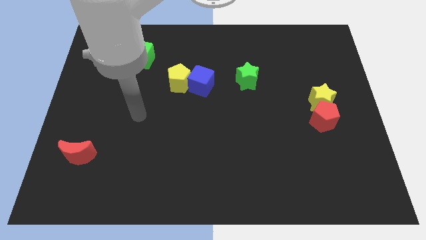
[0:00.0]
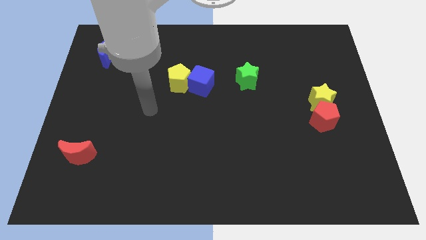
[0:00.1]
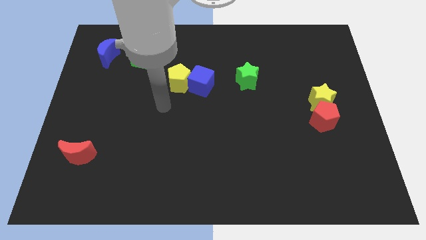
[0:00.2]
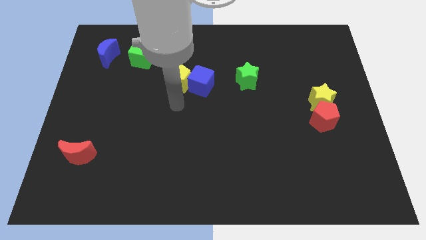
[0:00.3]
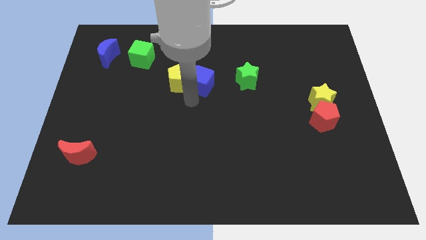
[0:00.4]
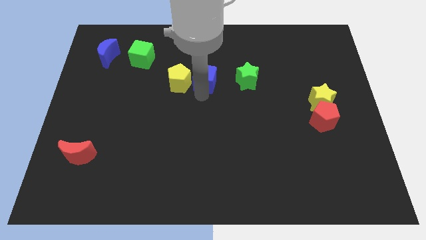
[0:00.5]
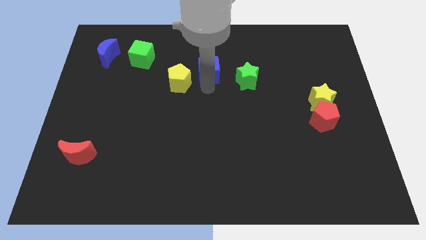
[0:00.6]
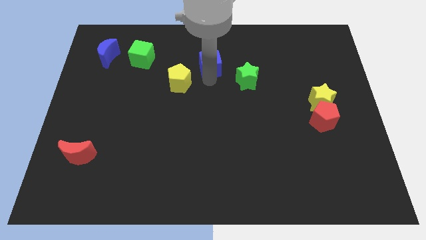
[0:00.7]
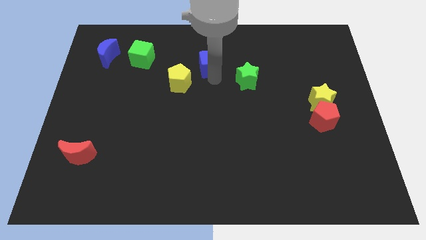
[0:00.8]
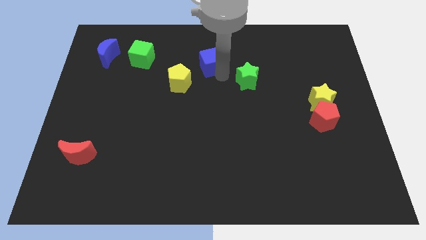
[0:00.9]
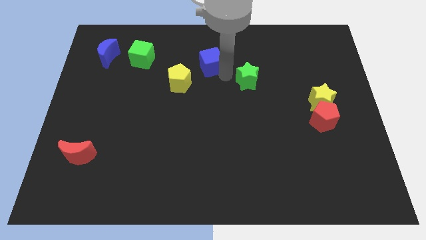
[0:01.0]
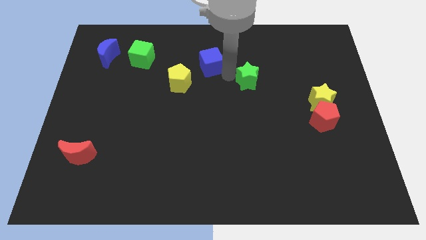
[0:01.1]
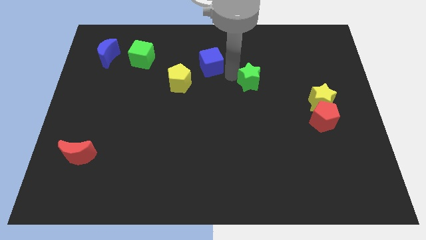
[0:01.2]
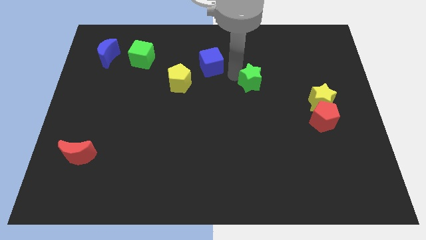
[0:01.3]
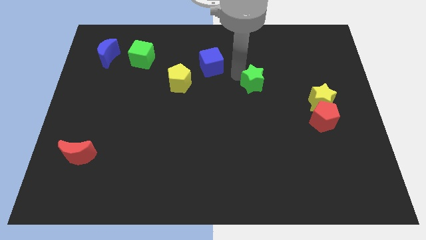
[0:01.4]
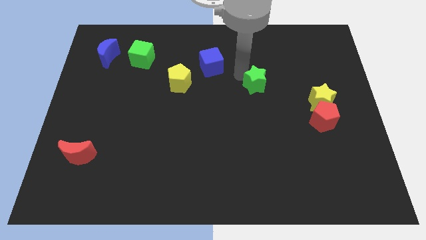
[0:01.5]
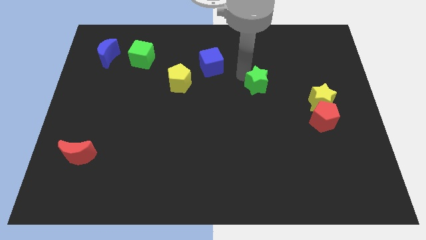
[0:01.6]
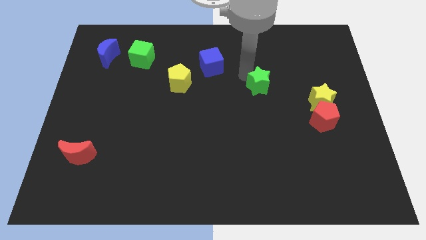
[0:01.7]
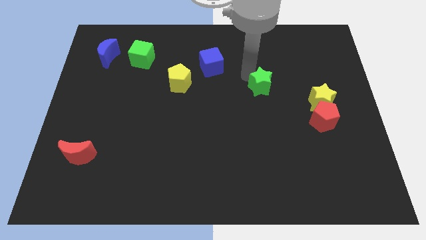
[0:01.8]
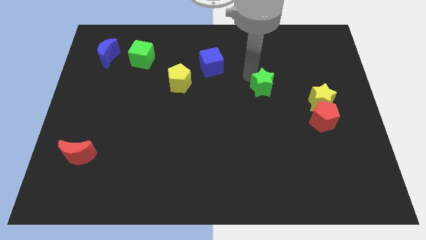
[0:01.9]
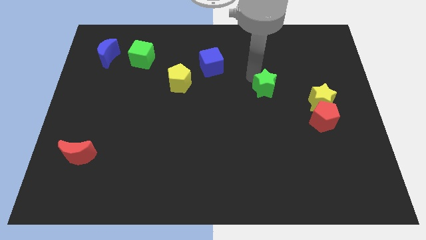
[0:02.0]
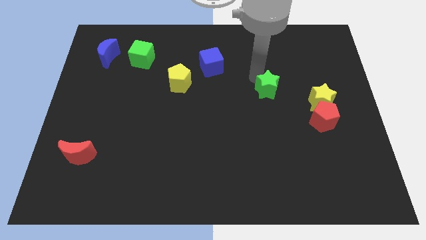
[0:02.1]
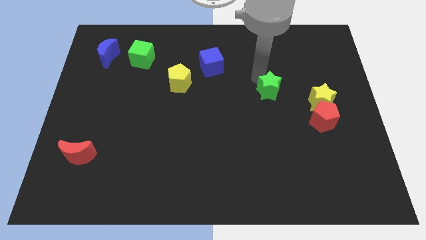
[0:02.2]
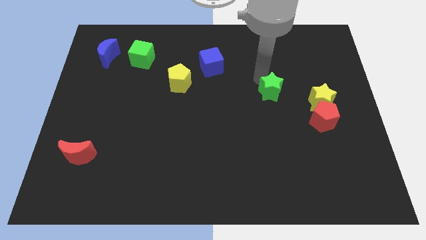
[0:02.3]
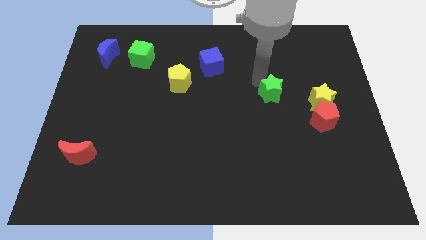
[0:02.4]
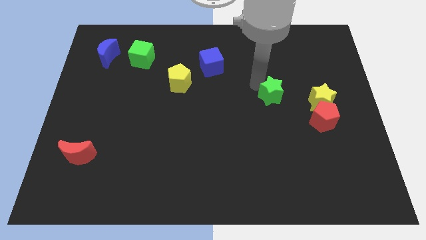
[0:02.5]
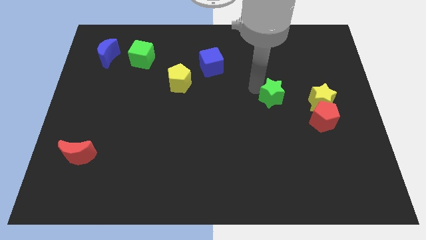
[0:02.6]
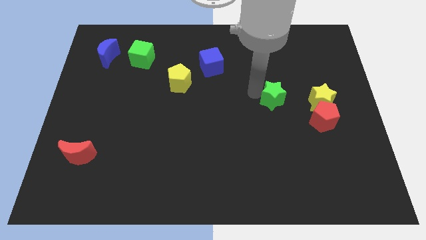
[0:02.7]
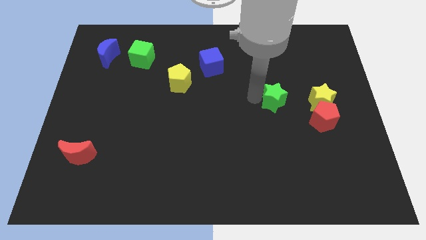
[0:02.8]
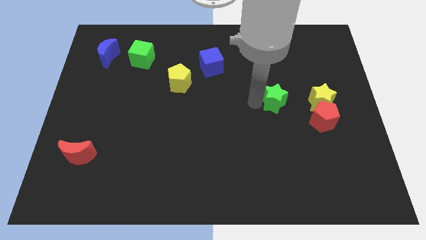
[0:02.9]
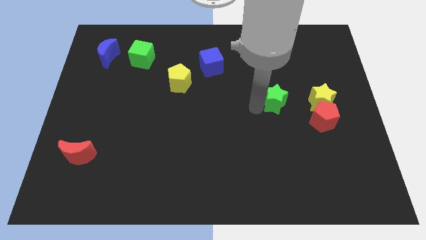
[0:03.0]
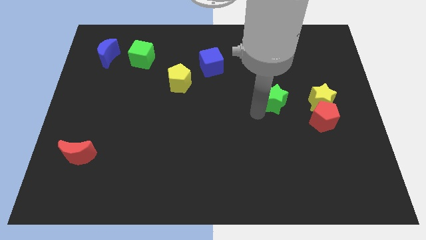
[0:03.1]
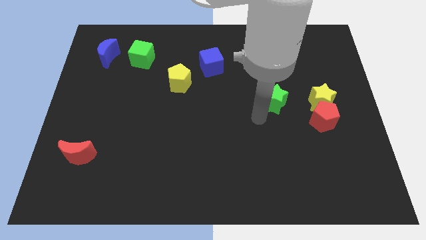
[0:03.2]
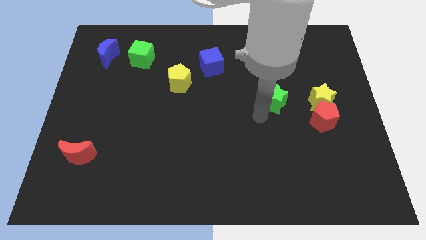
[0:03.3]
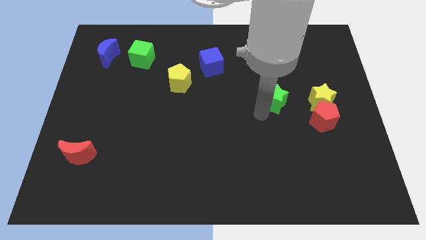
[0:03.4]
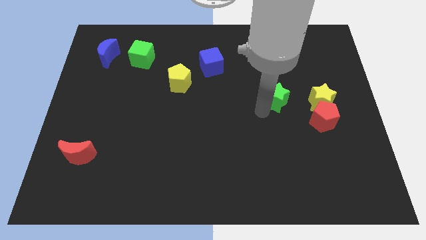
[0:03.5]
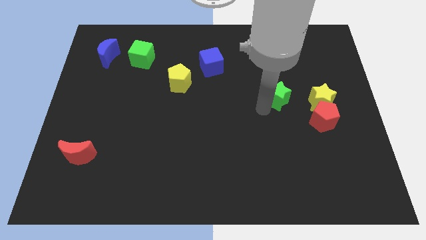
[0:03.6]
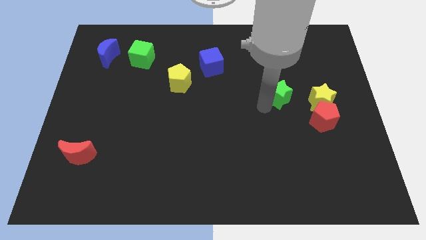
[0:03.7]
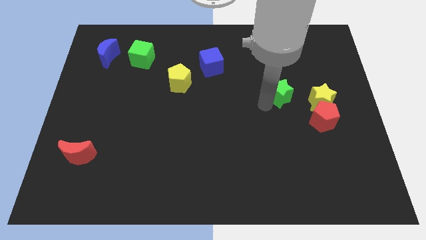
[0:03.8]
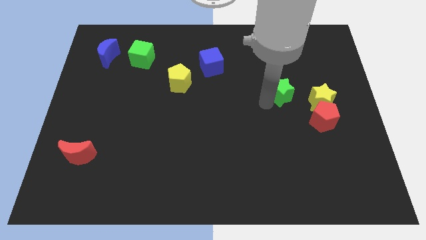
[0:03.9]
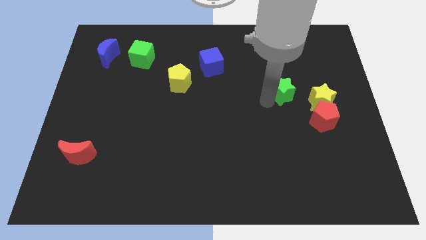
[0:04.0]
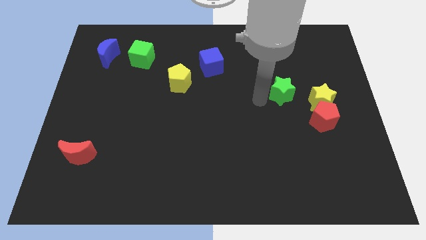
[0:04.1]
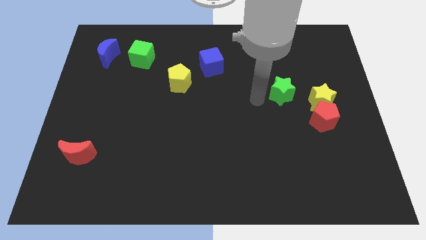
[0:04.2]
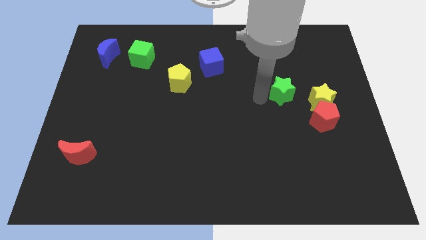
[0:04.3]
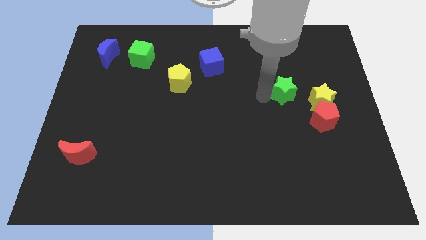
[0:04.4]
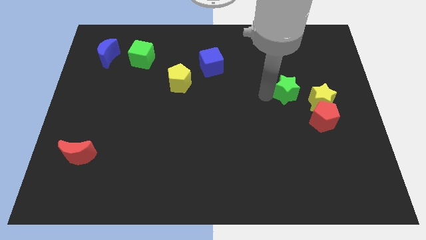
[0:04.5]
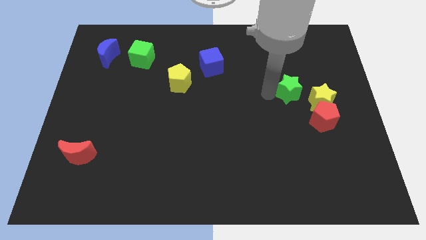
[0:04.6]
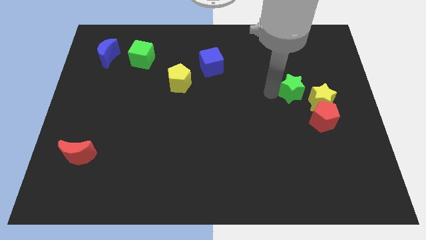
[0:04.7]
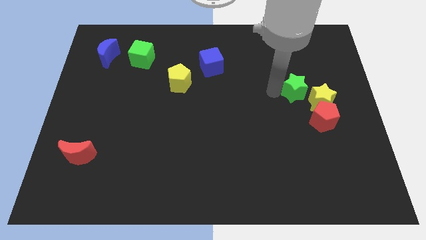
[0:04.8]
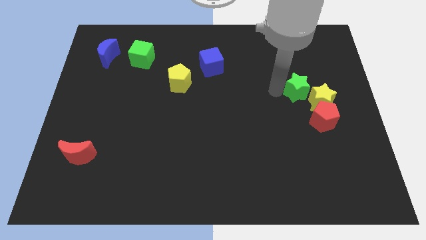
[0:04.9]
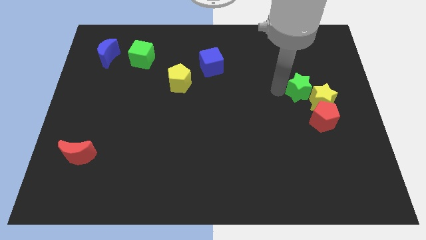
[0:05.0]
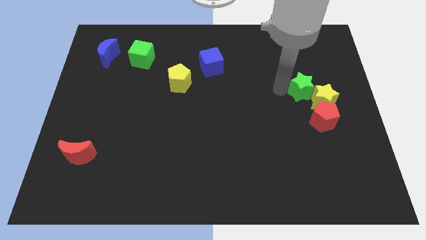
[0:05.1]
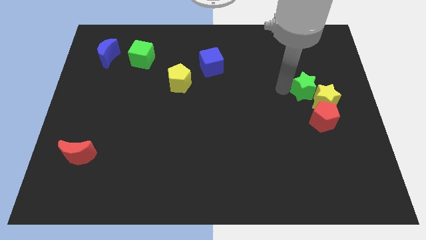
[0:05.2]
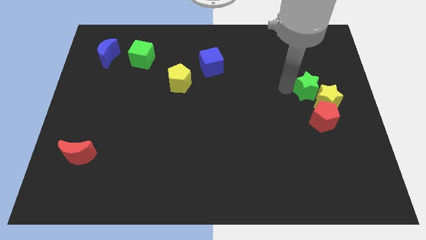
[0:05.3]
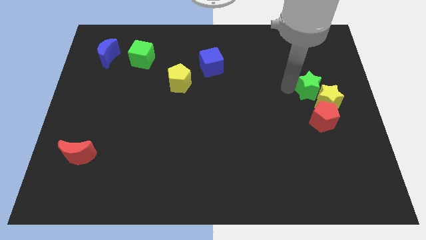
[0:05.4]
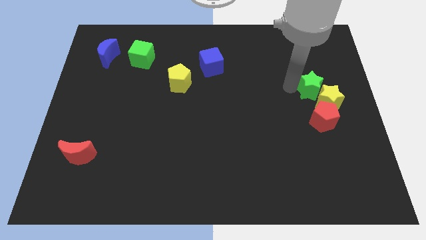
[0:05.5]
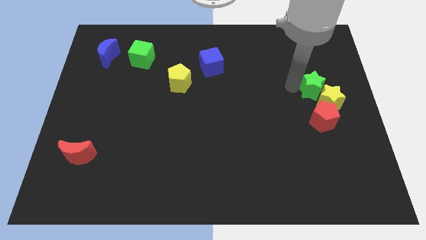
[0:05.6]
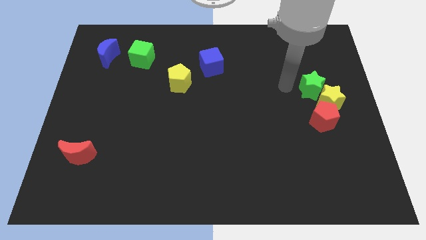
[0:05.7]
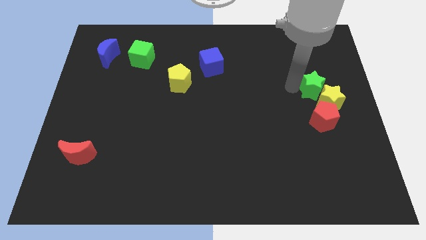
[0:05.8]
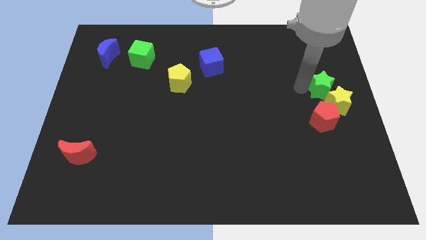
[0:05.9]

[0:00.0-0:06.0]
move the green star to the right side
